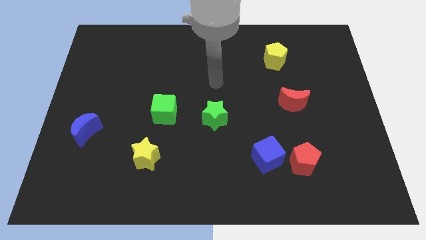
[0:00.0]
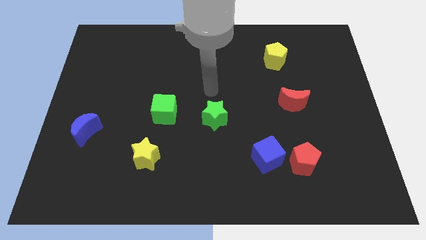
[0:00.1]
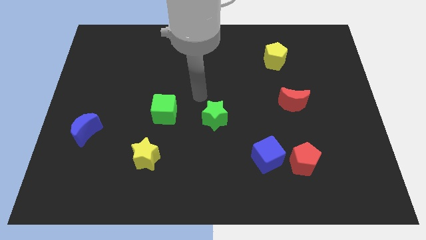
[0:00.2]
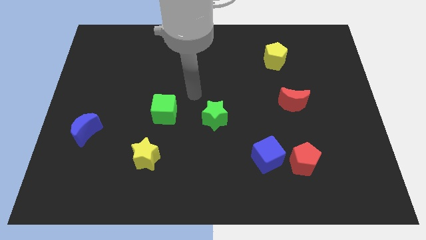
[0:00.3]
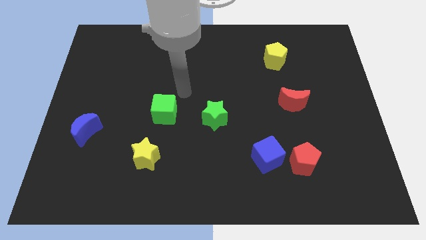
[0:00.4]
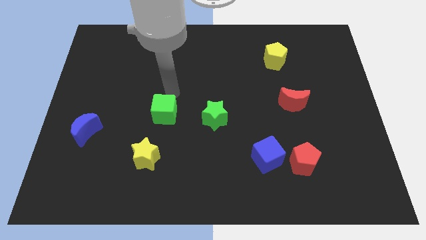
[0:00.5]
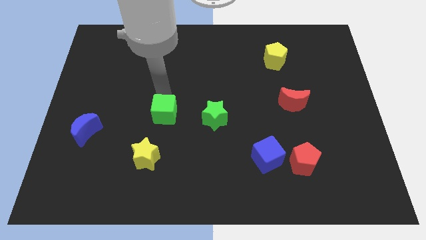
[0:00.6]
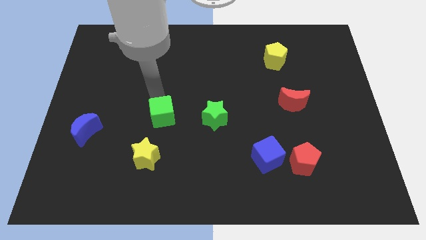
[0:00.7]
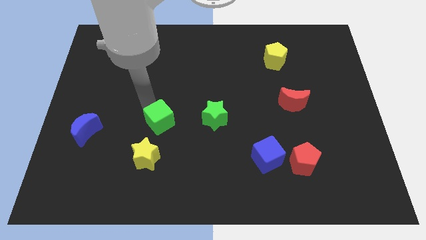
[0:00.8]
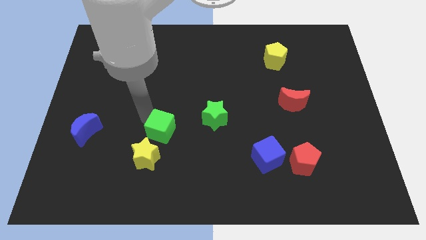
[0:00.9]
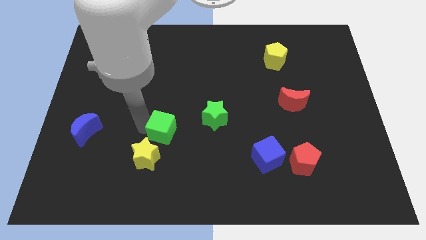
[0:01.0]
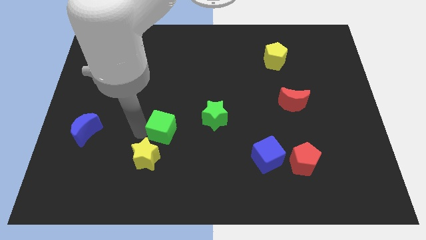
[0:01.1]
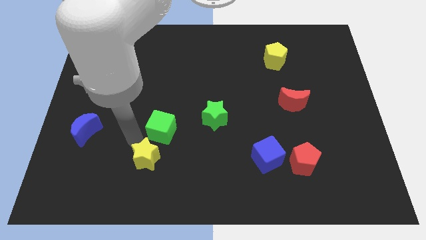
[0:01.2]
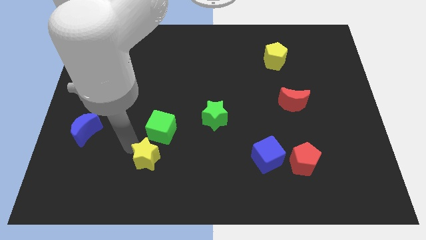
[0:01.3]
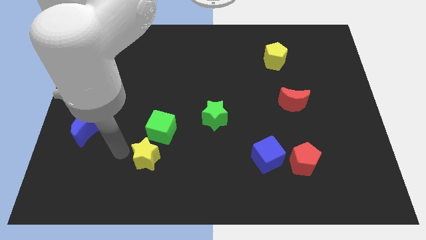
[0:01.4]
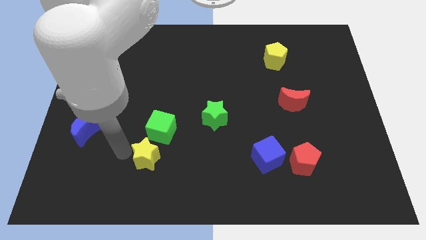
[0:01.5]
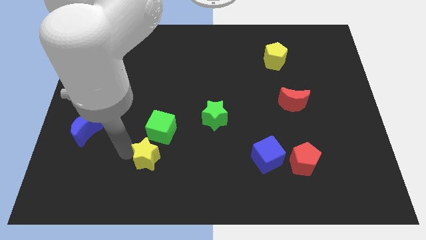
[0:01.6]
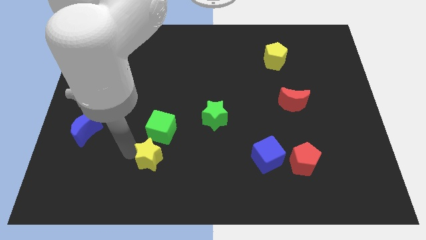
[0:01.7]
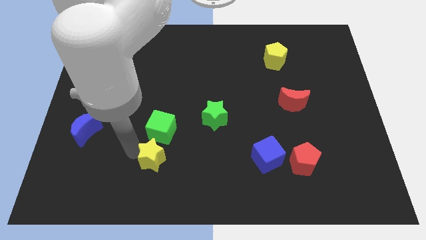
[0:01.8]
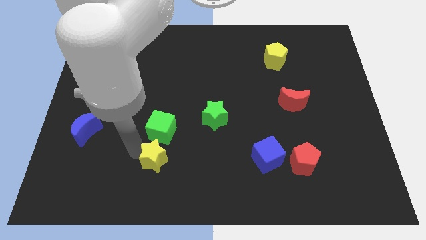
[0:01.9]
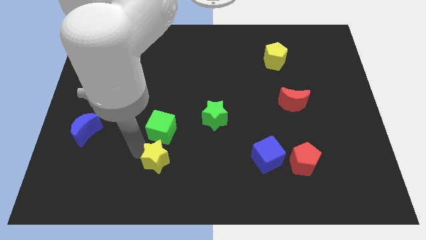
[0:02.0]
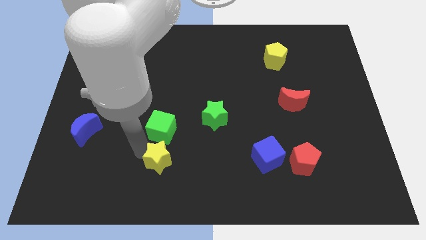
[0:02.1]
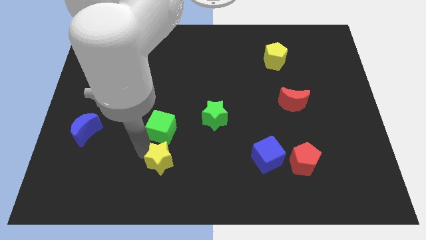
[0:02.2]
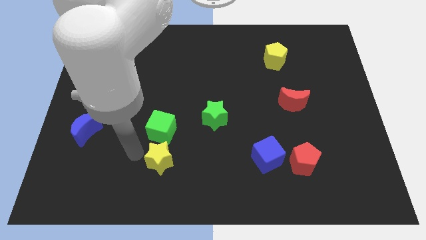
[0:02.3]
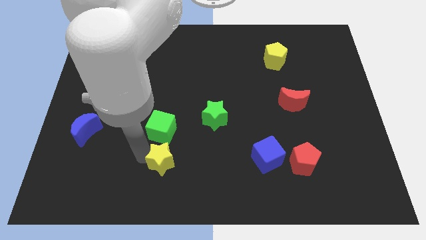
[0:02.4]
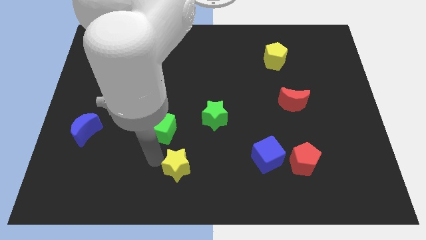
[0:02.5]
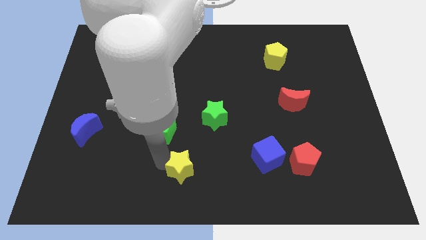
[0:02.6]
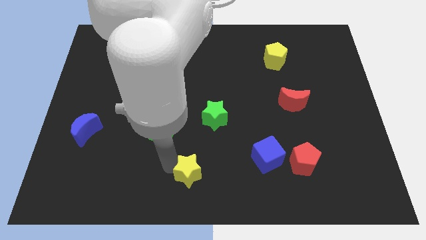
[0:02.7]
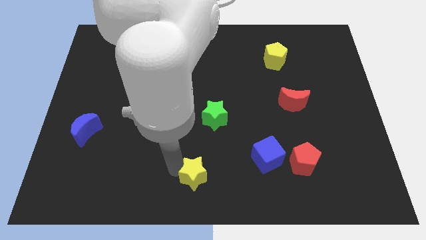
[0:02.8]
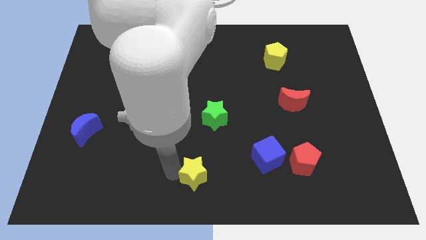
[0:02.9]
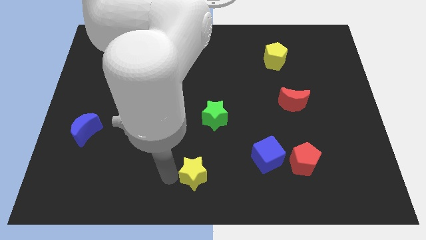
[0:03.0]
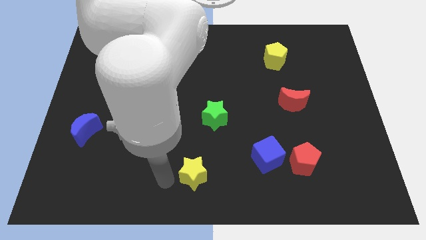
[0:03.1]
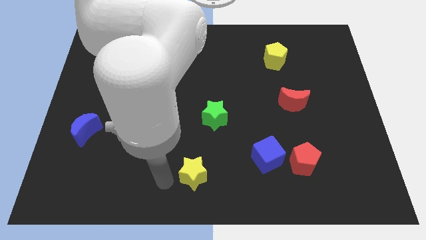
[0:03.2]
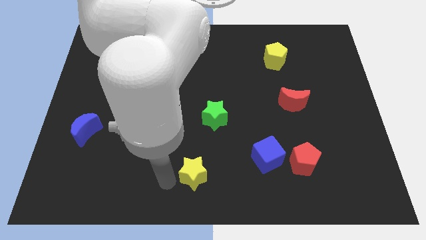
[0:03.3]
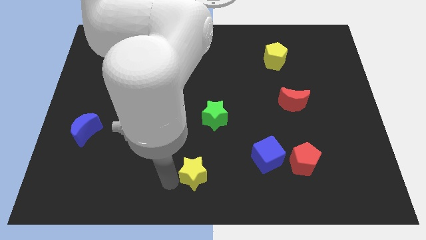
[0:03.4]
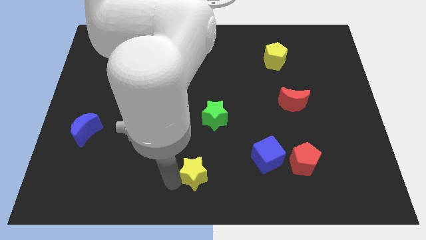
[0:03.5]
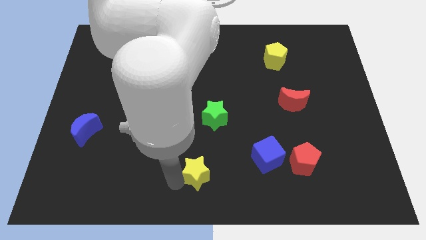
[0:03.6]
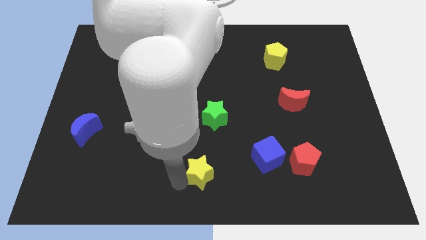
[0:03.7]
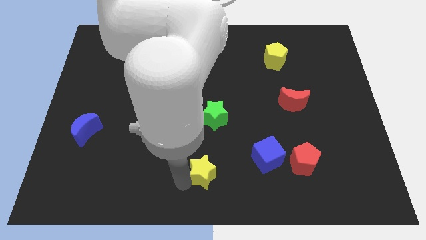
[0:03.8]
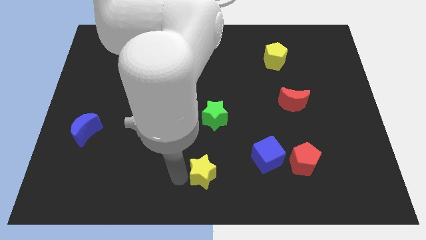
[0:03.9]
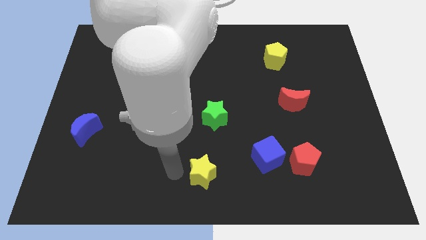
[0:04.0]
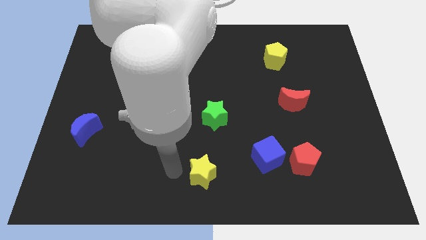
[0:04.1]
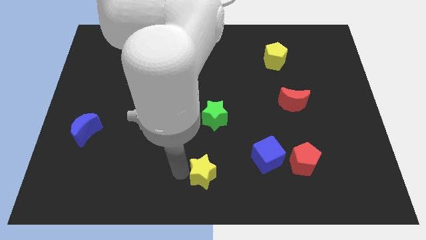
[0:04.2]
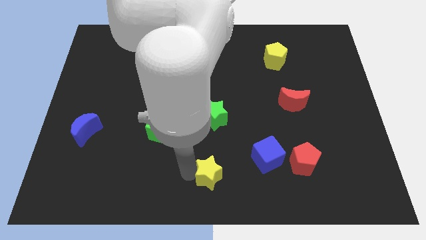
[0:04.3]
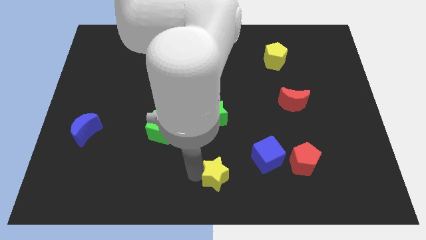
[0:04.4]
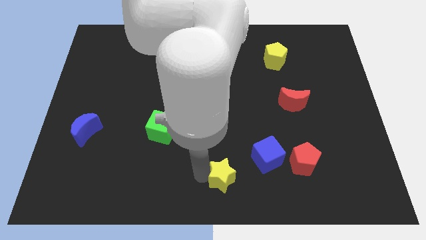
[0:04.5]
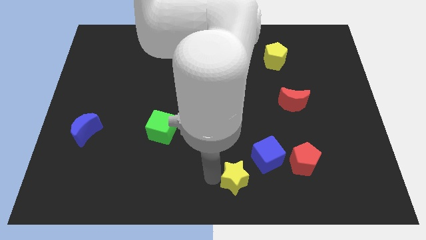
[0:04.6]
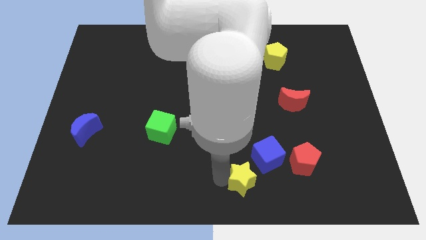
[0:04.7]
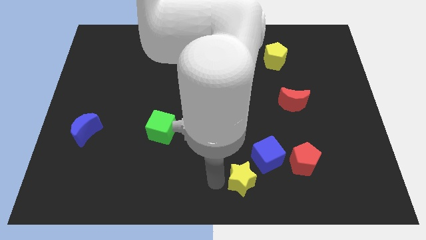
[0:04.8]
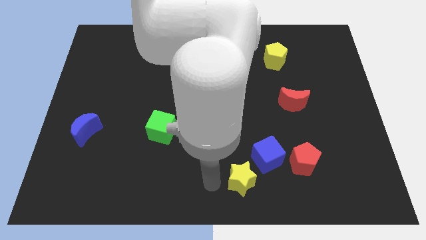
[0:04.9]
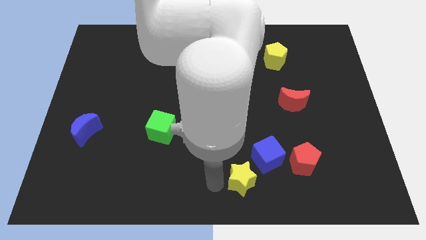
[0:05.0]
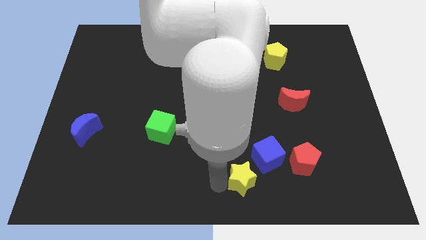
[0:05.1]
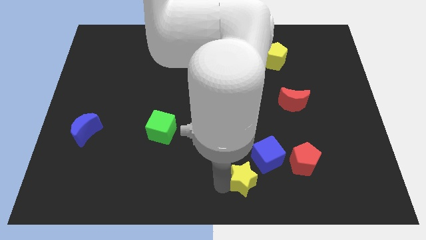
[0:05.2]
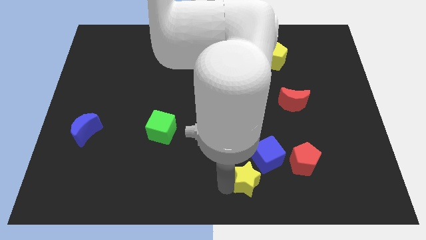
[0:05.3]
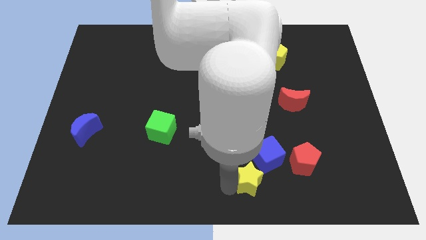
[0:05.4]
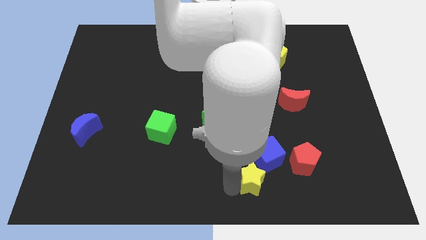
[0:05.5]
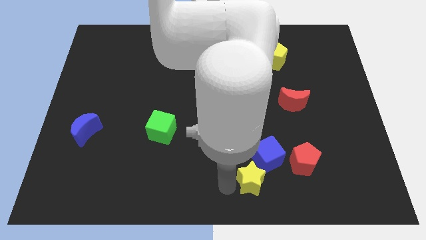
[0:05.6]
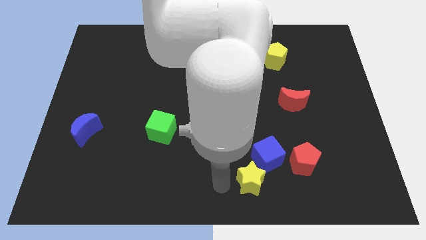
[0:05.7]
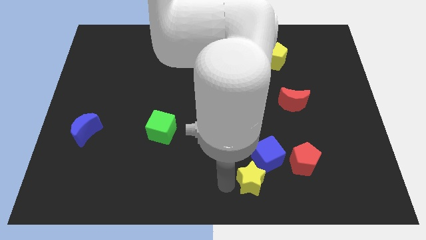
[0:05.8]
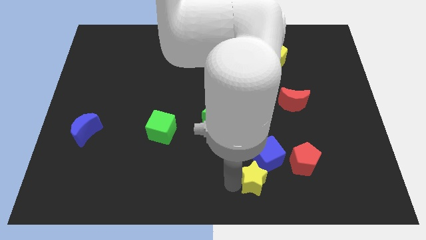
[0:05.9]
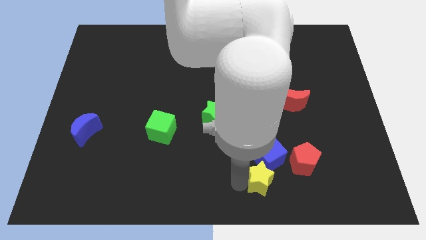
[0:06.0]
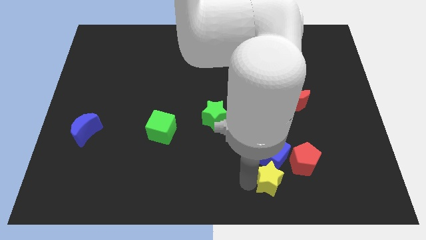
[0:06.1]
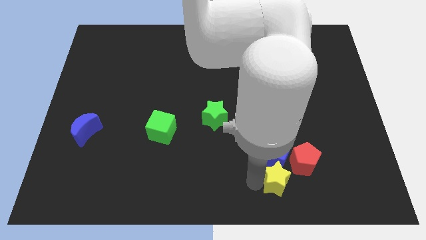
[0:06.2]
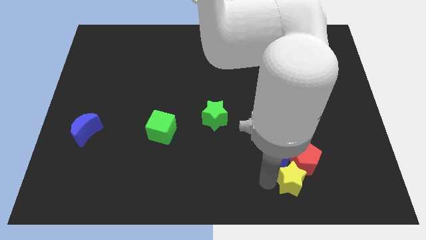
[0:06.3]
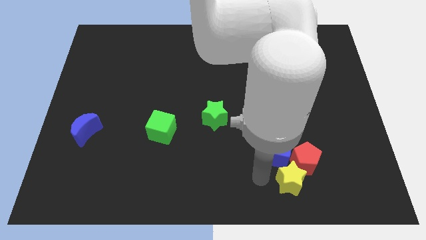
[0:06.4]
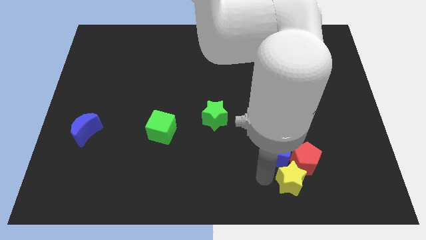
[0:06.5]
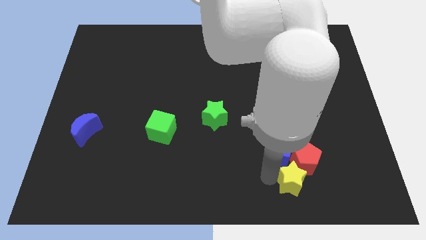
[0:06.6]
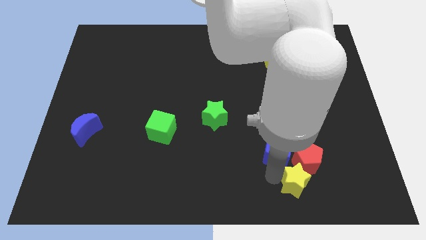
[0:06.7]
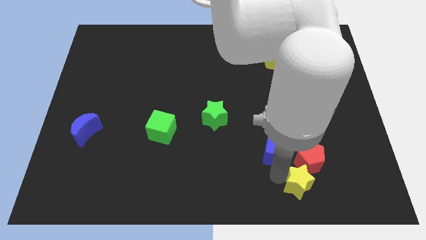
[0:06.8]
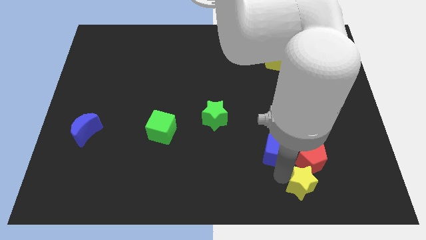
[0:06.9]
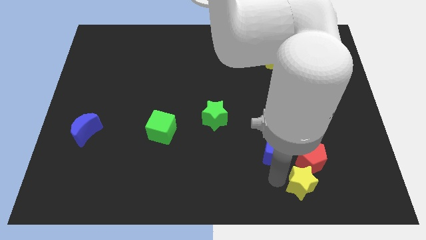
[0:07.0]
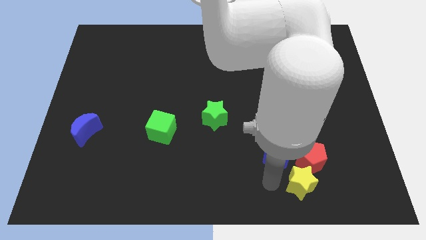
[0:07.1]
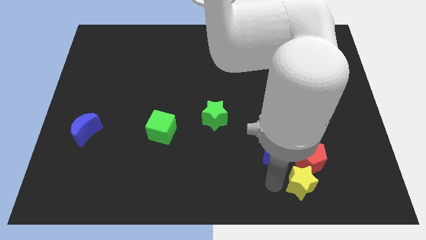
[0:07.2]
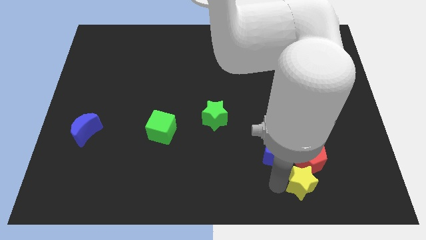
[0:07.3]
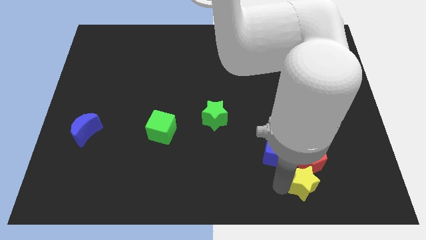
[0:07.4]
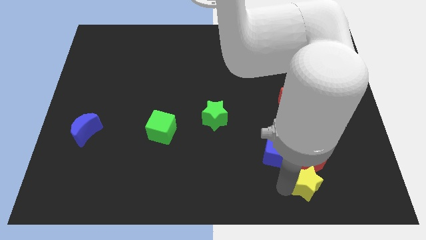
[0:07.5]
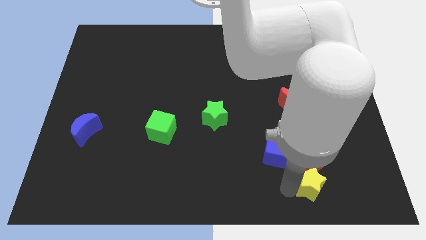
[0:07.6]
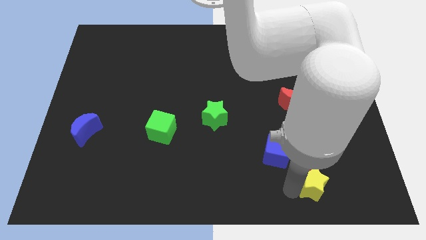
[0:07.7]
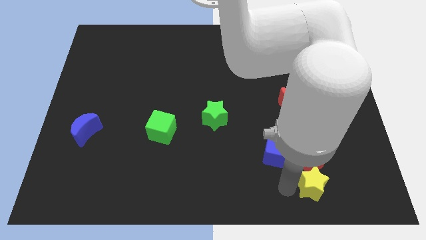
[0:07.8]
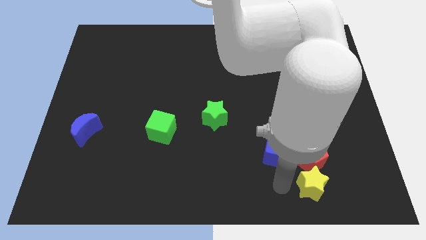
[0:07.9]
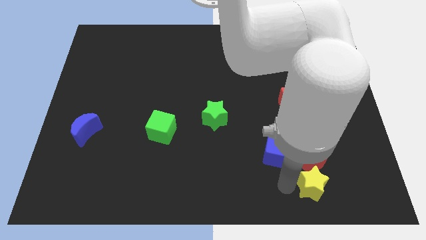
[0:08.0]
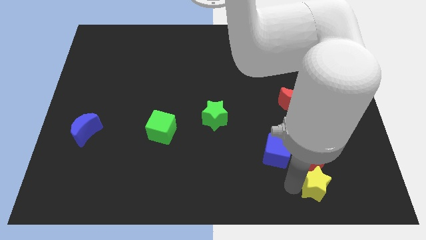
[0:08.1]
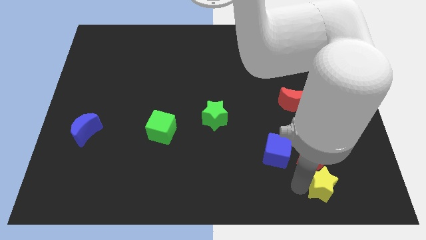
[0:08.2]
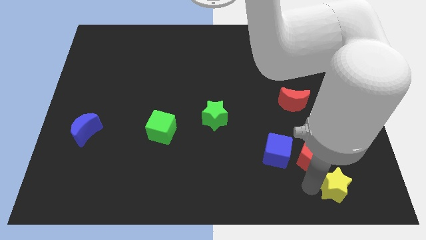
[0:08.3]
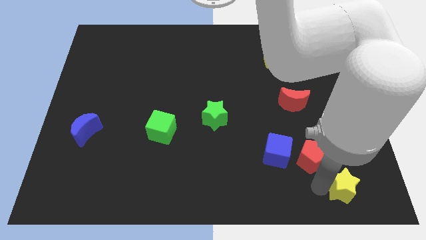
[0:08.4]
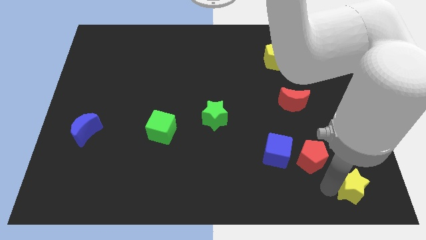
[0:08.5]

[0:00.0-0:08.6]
slide the yellow star to the bottom right corner
